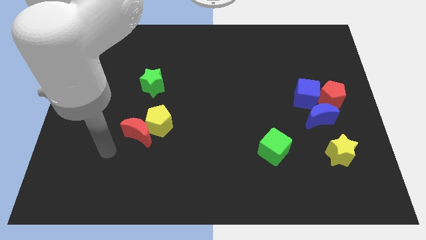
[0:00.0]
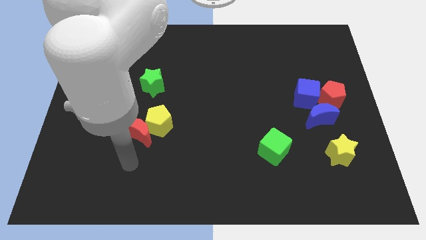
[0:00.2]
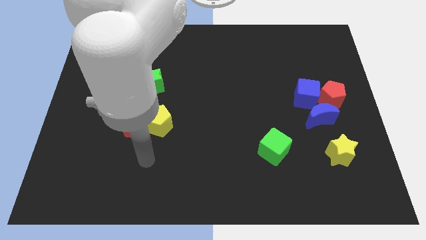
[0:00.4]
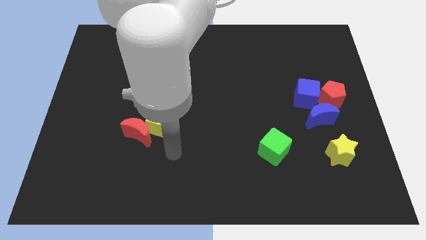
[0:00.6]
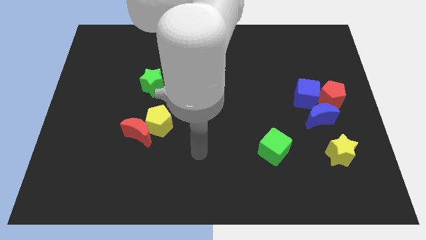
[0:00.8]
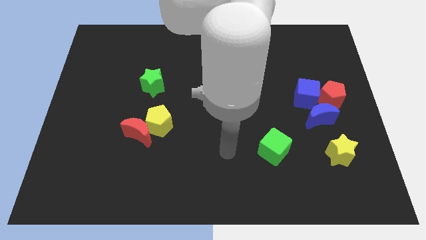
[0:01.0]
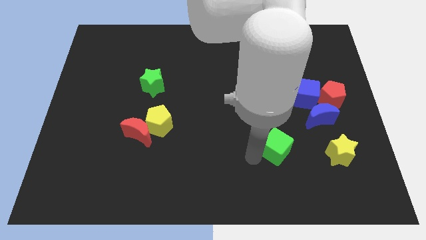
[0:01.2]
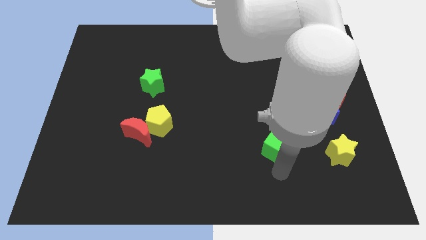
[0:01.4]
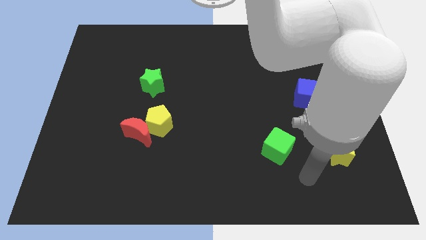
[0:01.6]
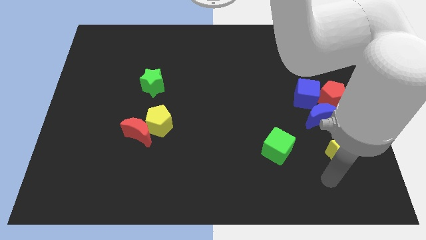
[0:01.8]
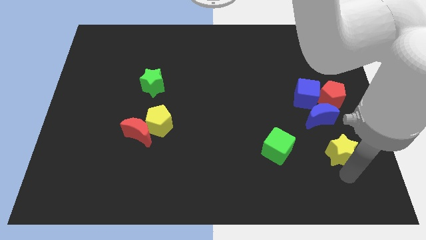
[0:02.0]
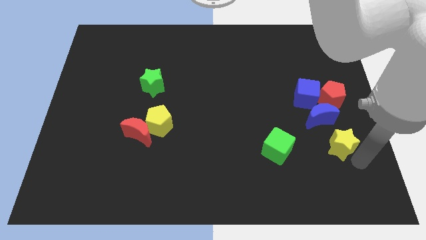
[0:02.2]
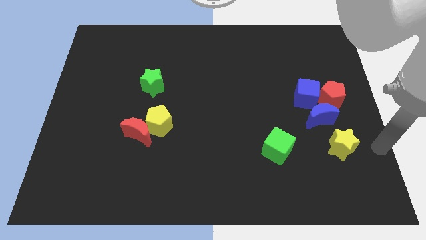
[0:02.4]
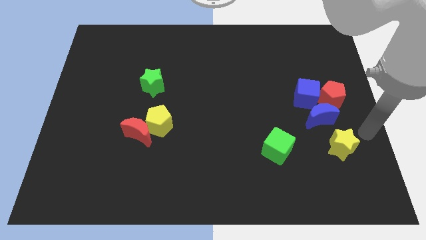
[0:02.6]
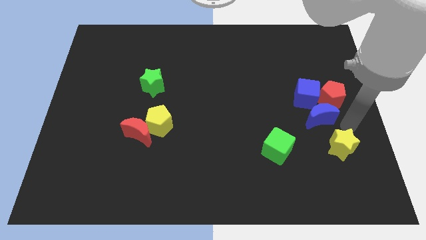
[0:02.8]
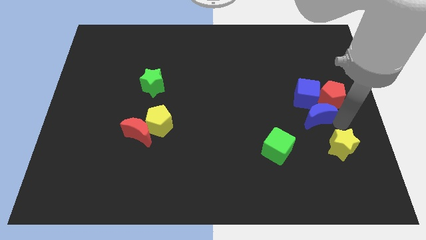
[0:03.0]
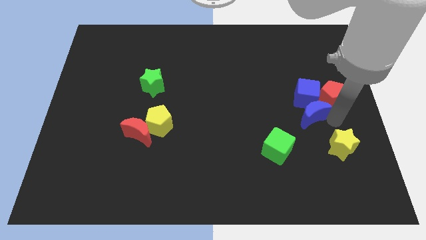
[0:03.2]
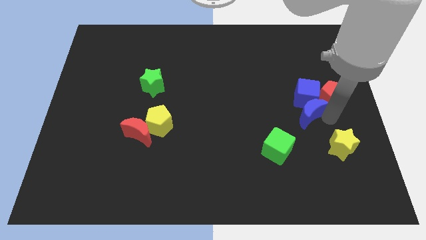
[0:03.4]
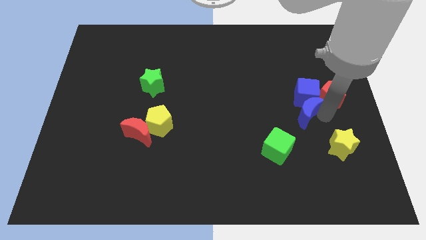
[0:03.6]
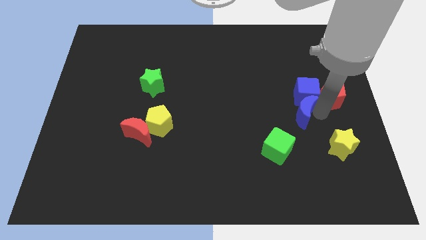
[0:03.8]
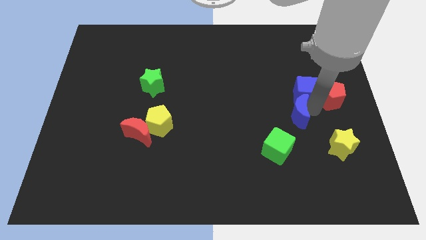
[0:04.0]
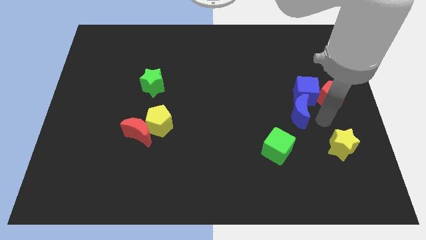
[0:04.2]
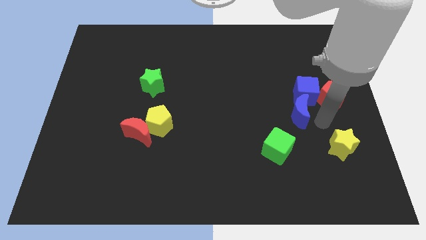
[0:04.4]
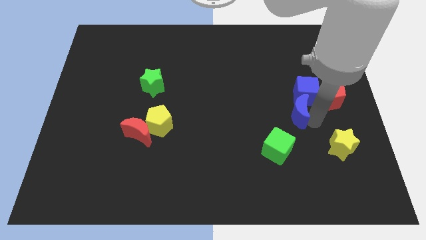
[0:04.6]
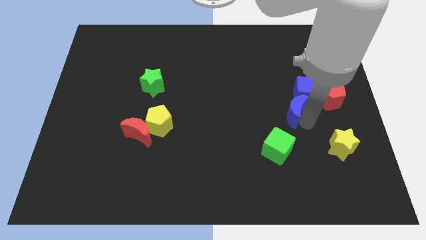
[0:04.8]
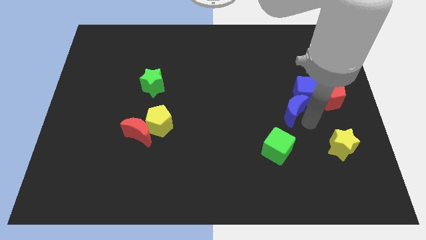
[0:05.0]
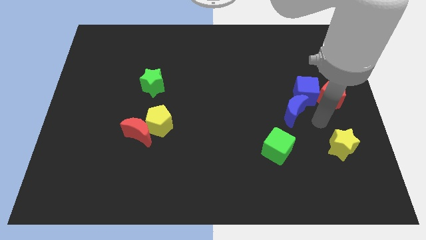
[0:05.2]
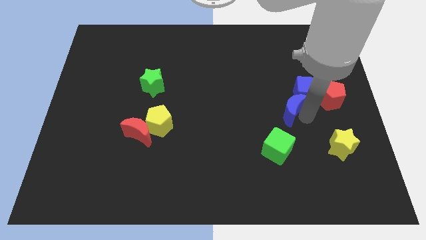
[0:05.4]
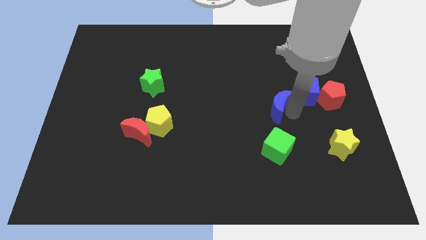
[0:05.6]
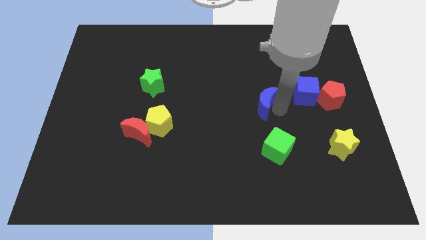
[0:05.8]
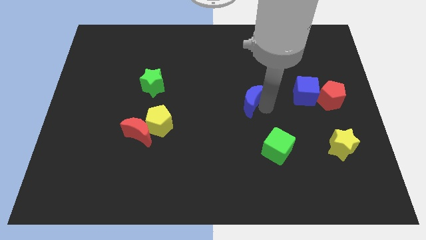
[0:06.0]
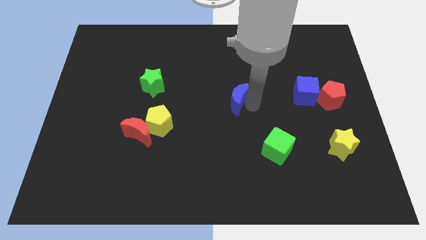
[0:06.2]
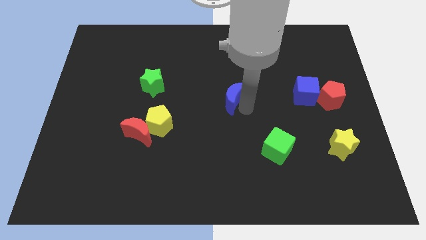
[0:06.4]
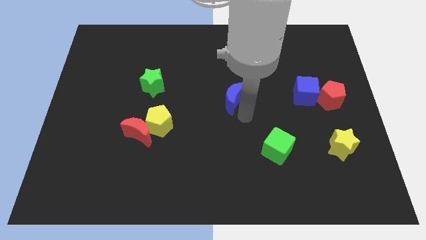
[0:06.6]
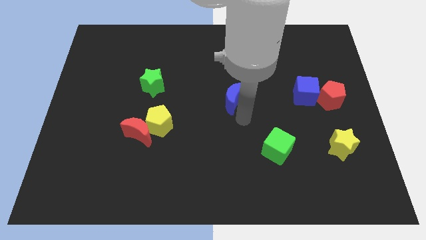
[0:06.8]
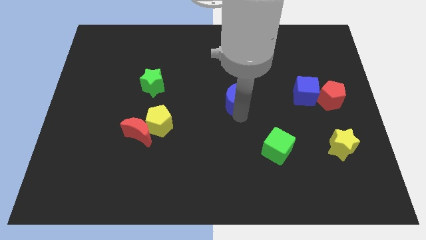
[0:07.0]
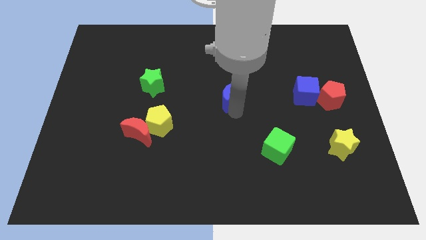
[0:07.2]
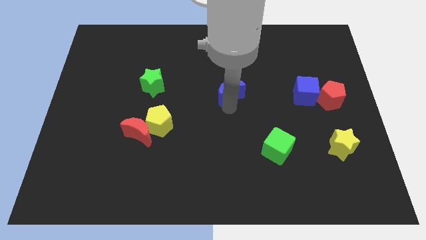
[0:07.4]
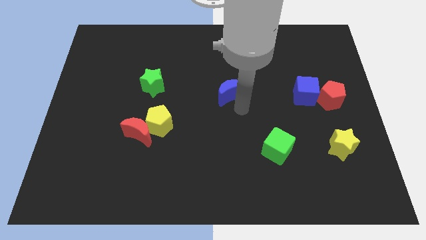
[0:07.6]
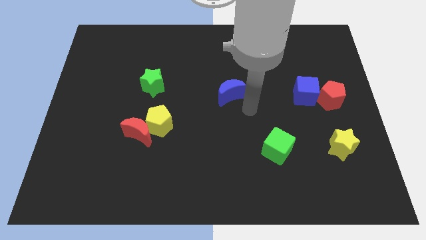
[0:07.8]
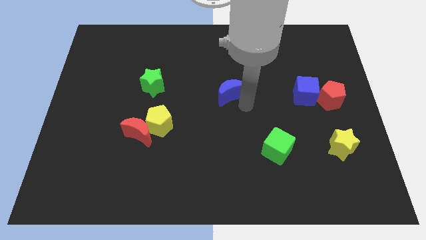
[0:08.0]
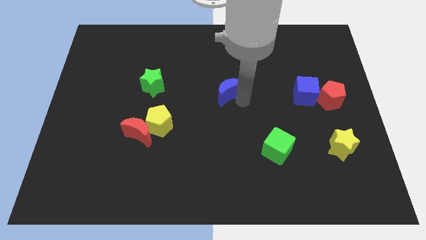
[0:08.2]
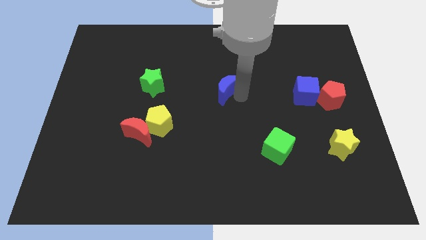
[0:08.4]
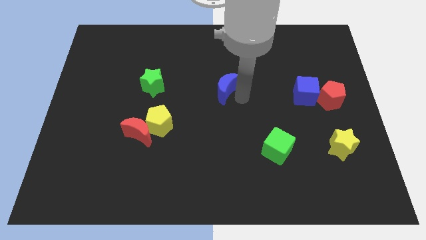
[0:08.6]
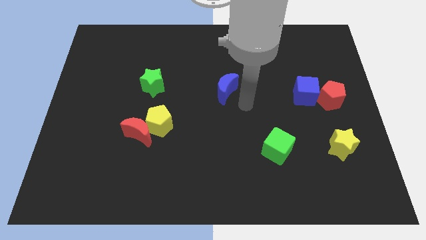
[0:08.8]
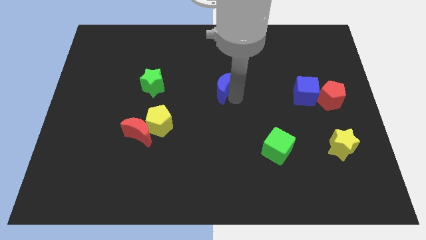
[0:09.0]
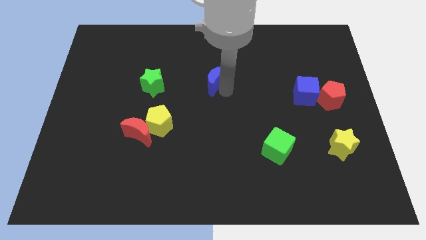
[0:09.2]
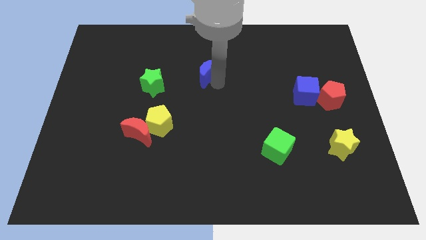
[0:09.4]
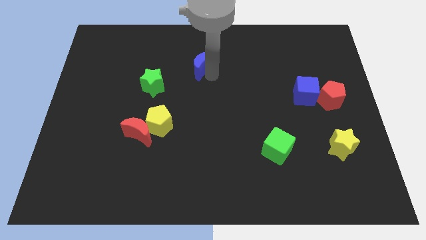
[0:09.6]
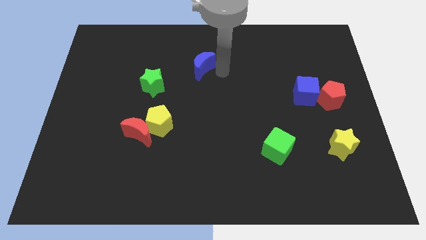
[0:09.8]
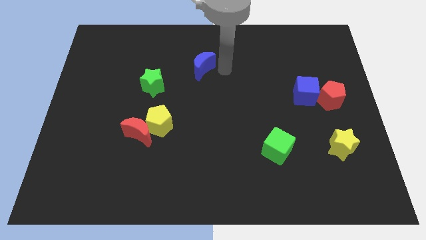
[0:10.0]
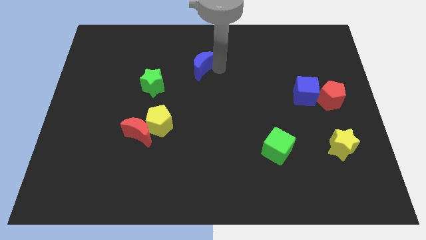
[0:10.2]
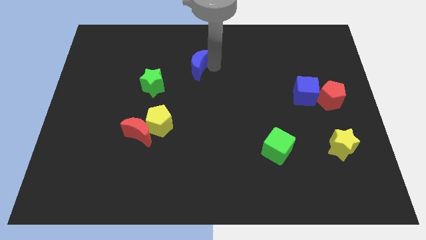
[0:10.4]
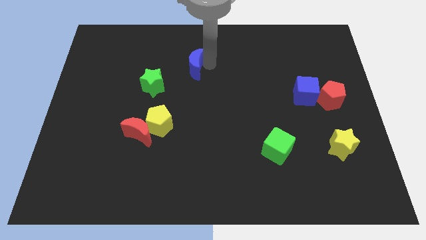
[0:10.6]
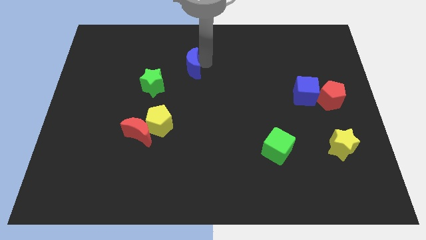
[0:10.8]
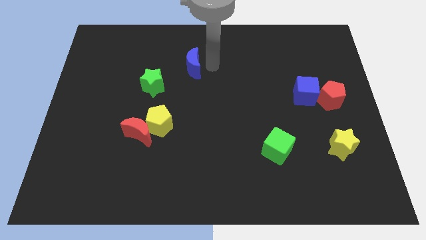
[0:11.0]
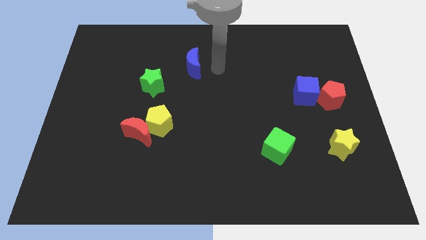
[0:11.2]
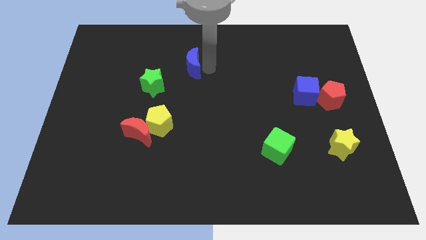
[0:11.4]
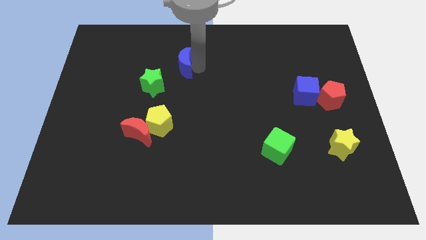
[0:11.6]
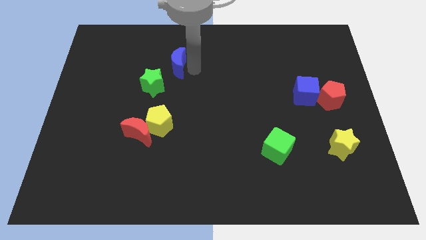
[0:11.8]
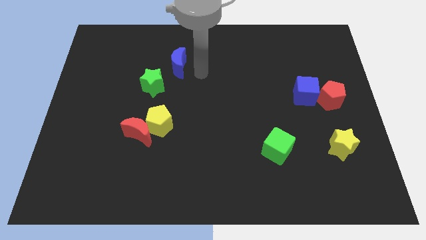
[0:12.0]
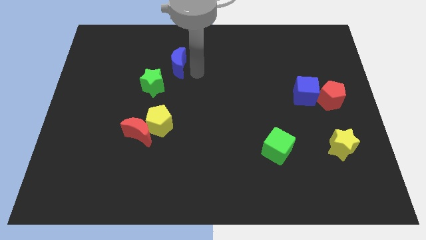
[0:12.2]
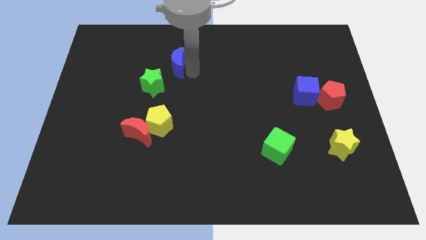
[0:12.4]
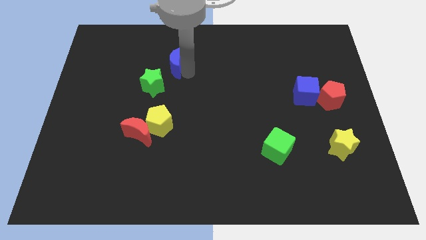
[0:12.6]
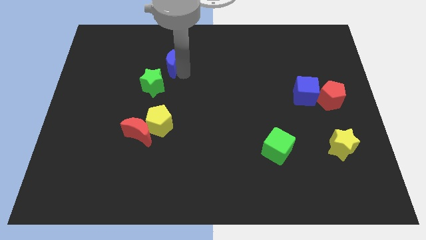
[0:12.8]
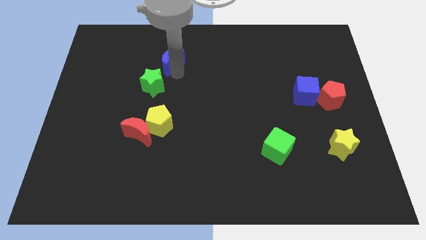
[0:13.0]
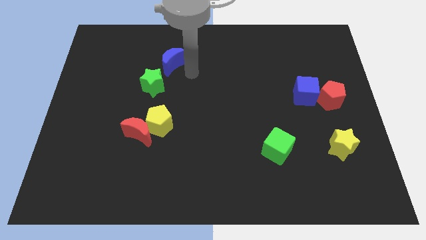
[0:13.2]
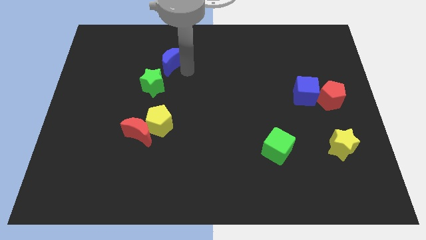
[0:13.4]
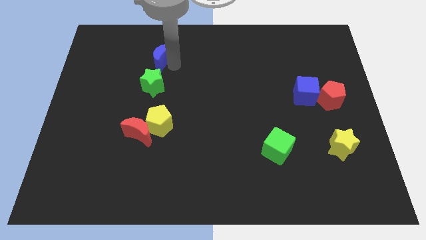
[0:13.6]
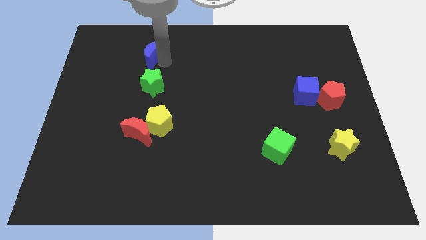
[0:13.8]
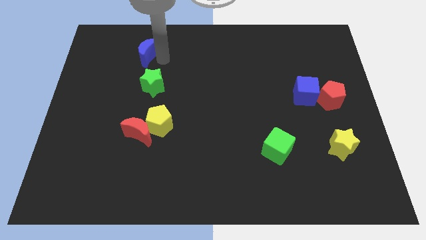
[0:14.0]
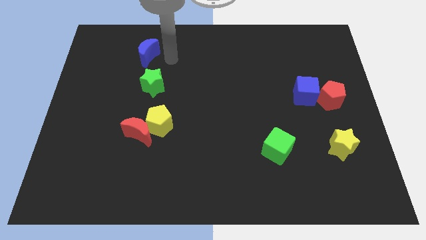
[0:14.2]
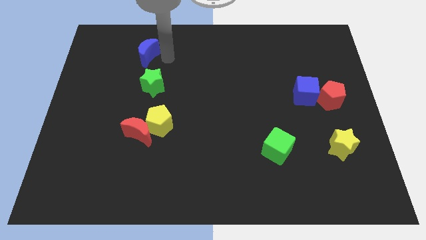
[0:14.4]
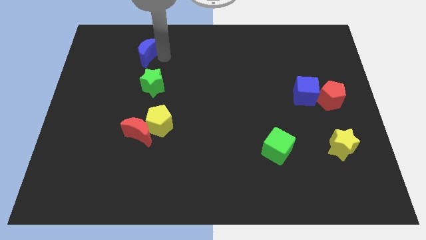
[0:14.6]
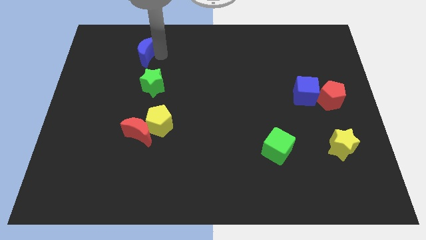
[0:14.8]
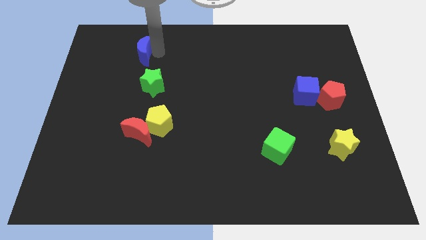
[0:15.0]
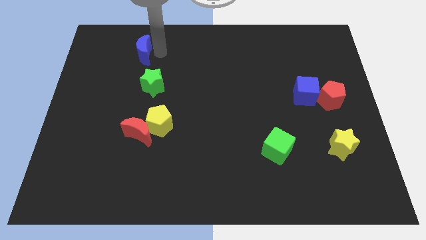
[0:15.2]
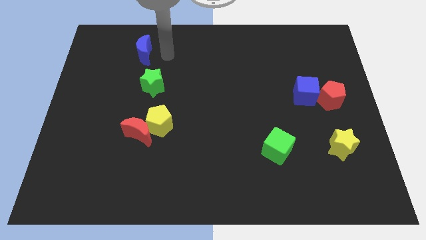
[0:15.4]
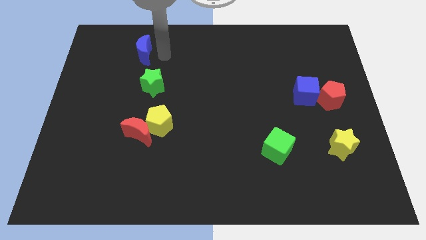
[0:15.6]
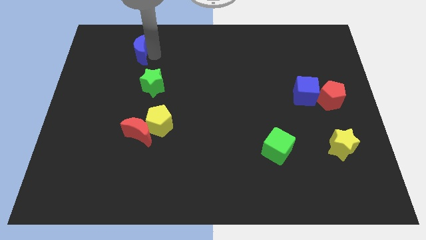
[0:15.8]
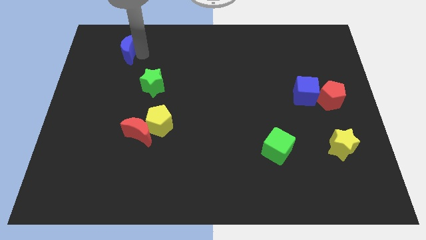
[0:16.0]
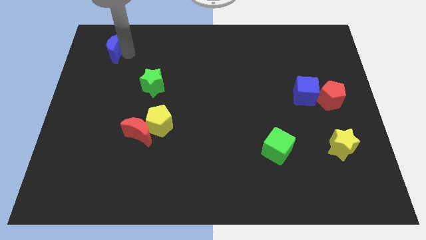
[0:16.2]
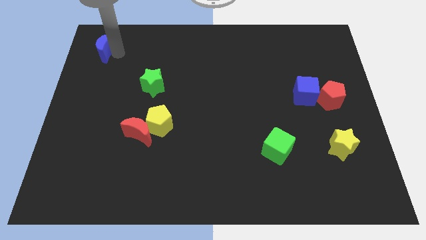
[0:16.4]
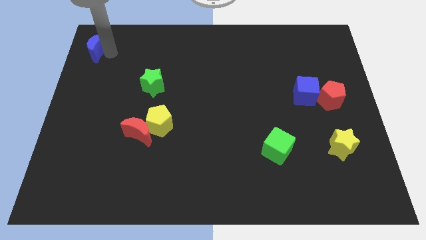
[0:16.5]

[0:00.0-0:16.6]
put the blue moon to the upper left corner
